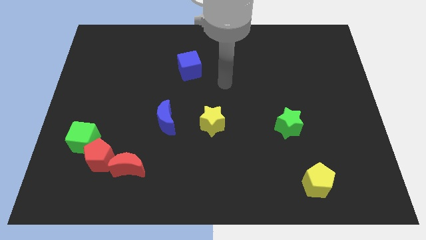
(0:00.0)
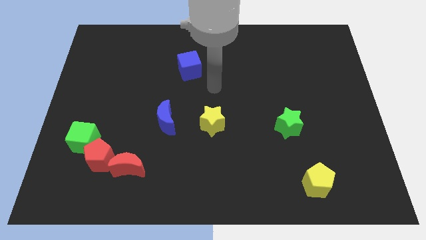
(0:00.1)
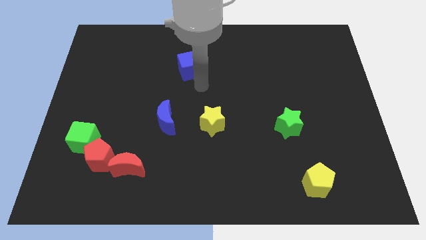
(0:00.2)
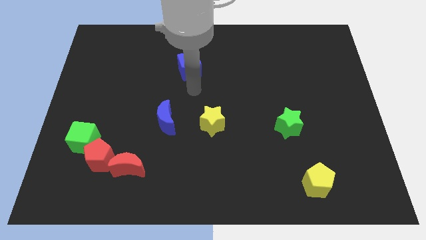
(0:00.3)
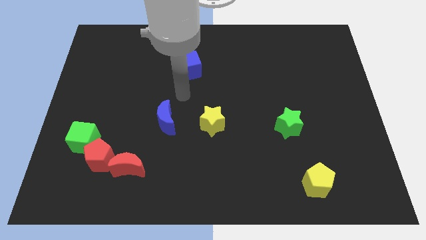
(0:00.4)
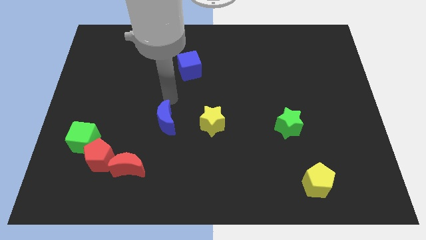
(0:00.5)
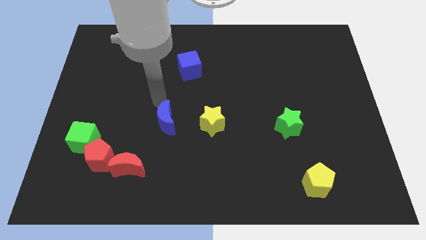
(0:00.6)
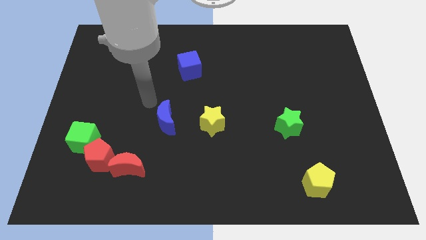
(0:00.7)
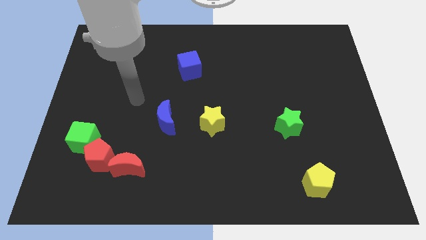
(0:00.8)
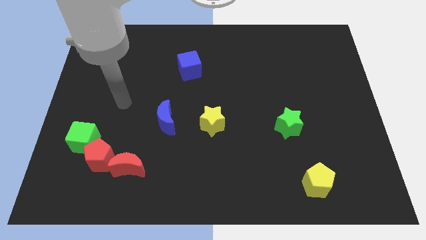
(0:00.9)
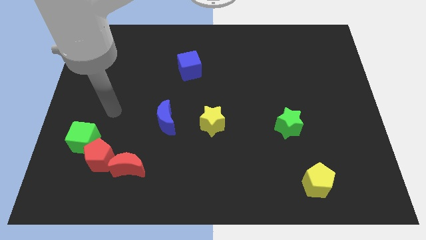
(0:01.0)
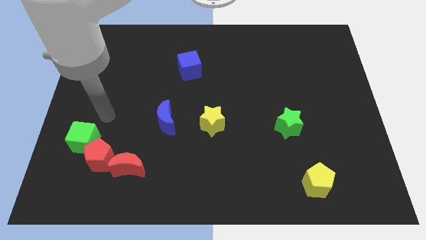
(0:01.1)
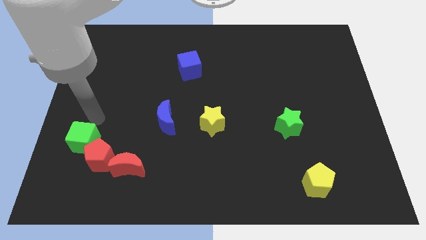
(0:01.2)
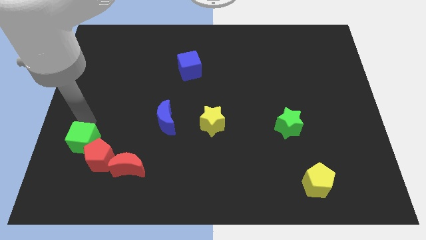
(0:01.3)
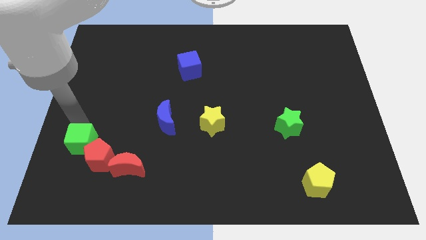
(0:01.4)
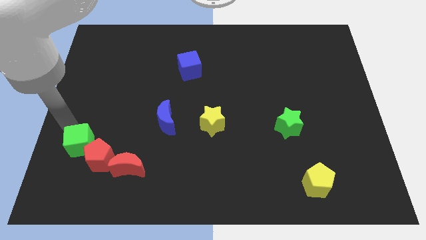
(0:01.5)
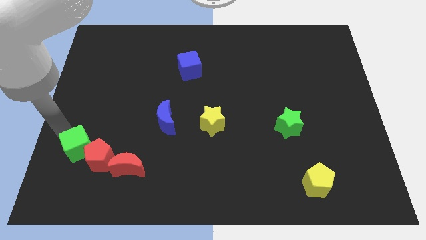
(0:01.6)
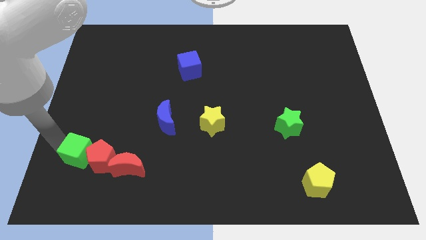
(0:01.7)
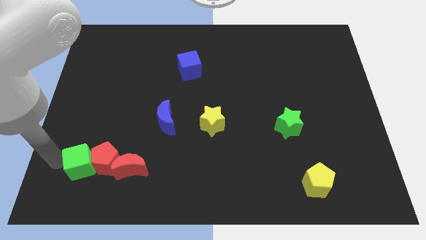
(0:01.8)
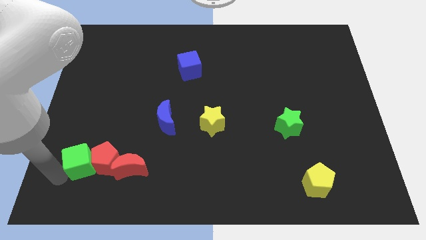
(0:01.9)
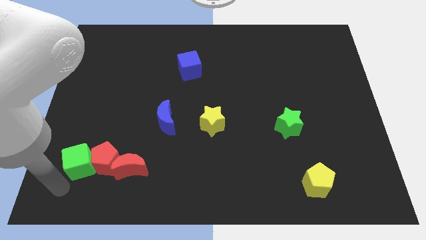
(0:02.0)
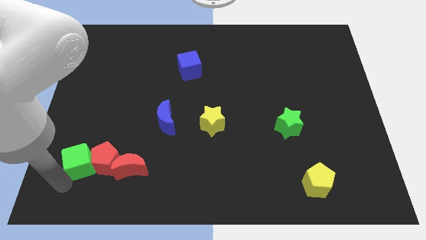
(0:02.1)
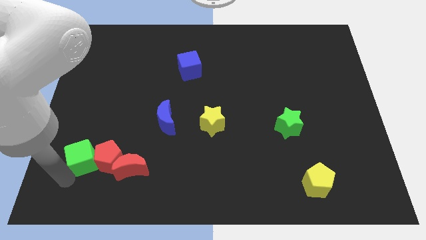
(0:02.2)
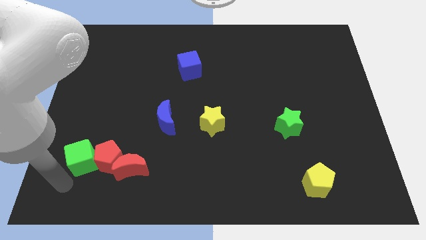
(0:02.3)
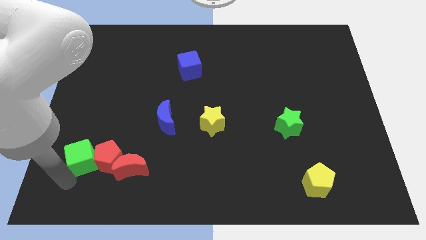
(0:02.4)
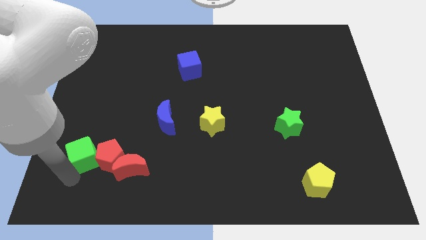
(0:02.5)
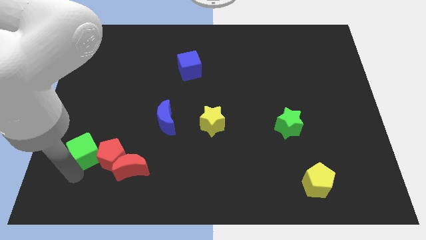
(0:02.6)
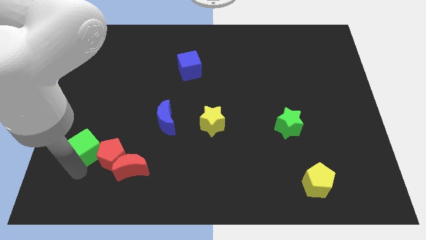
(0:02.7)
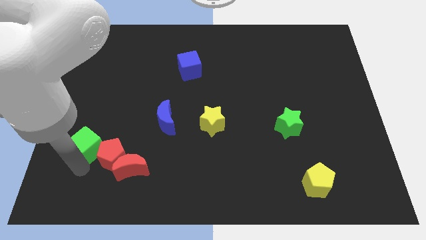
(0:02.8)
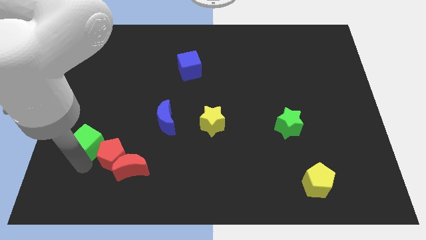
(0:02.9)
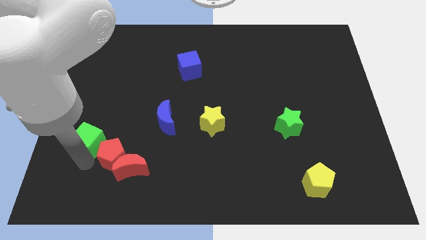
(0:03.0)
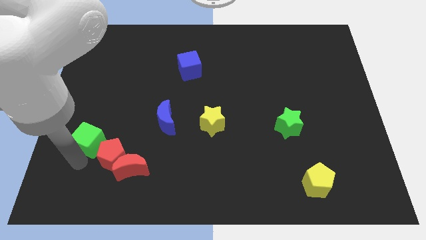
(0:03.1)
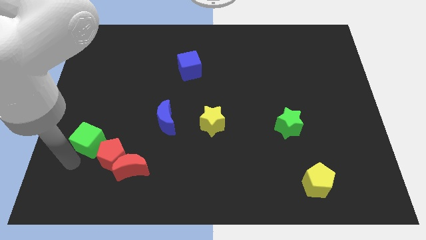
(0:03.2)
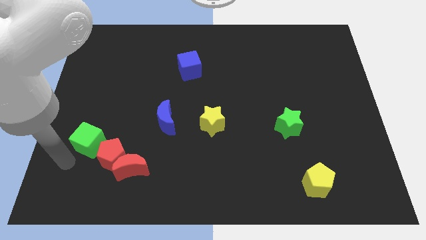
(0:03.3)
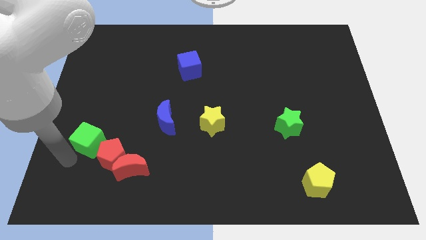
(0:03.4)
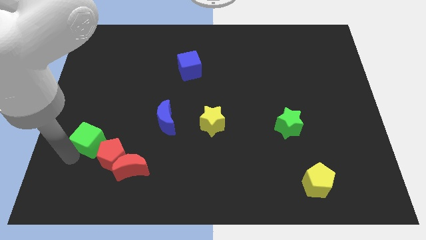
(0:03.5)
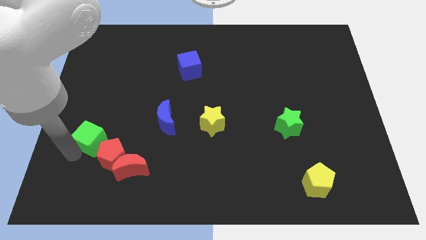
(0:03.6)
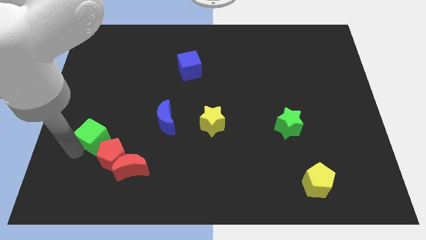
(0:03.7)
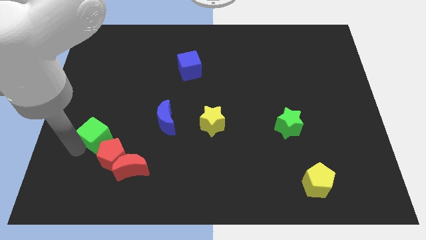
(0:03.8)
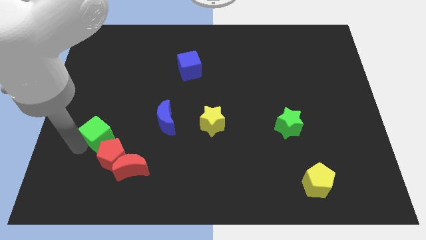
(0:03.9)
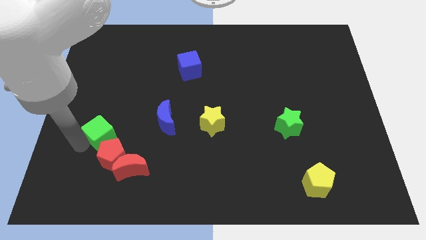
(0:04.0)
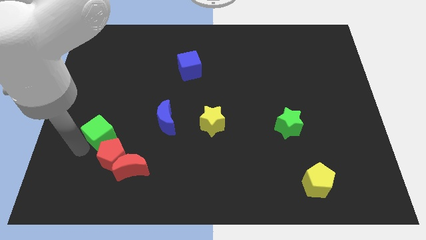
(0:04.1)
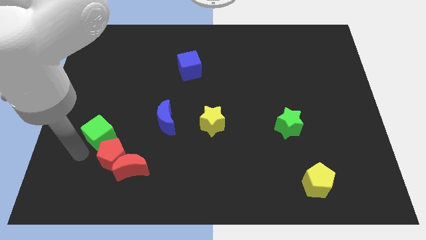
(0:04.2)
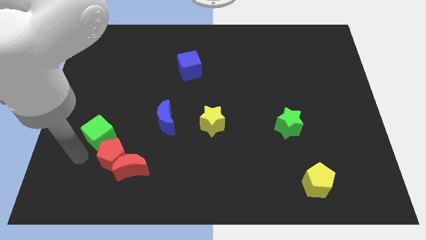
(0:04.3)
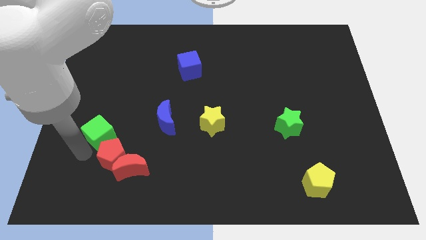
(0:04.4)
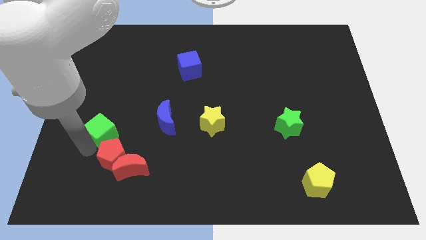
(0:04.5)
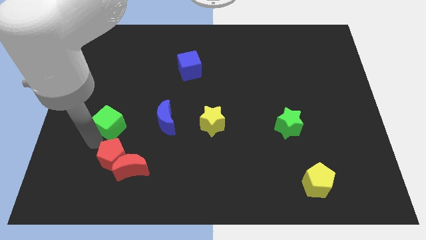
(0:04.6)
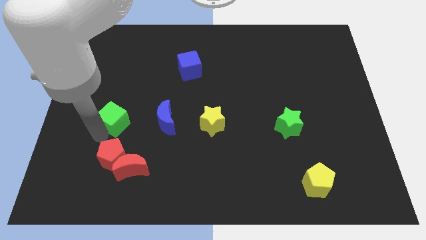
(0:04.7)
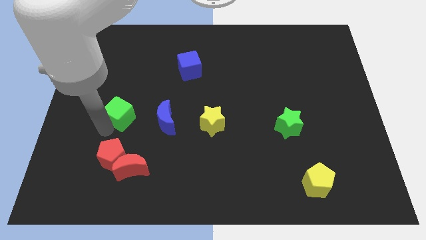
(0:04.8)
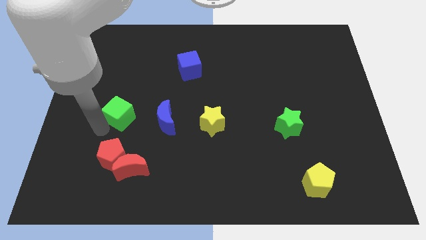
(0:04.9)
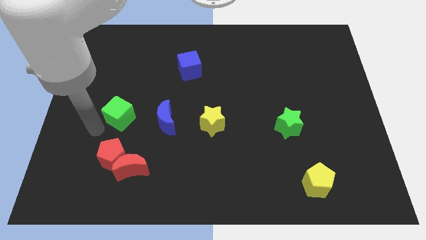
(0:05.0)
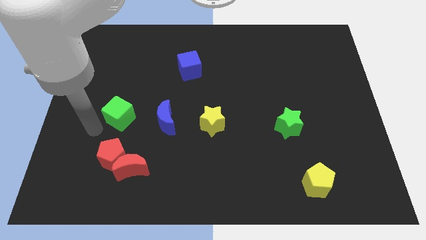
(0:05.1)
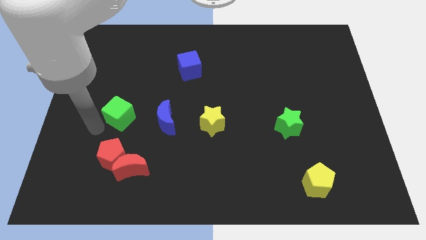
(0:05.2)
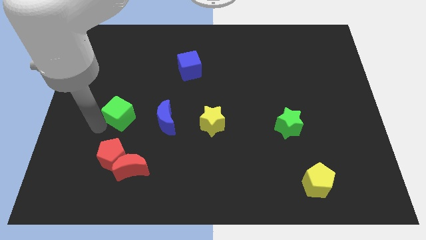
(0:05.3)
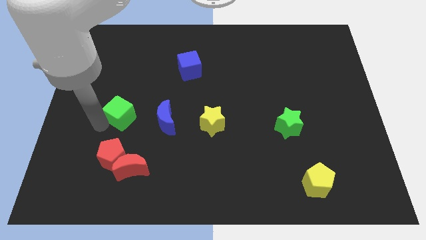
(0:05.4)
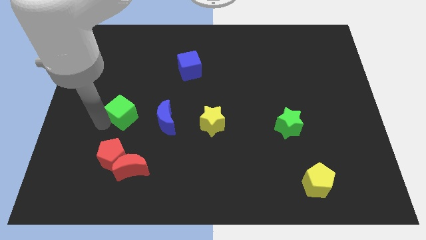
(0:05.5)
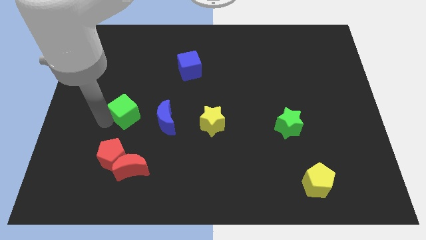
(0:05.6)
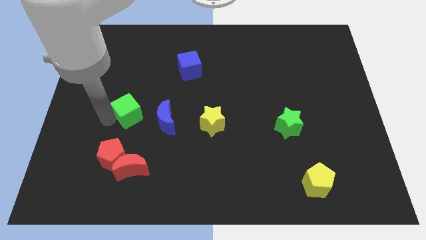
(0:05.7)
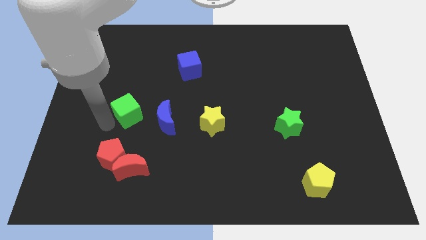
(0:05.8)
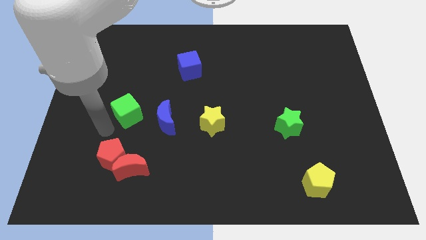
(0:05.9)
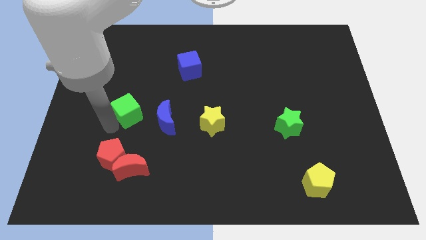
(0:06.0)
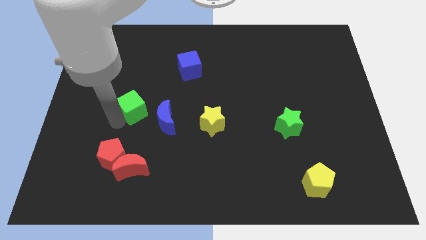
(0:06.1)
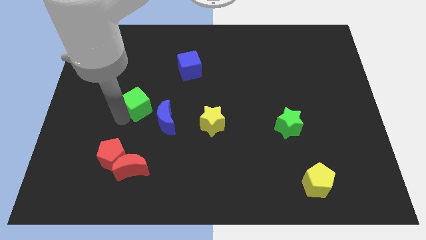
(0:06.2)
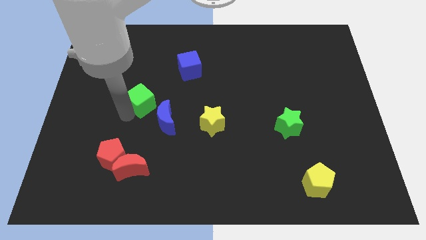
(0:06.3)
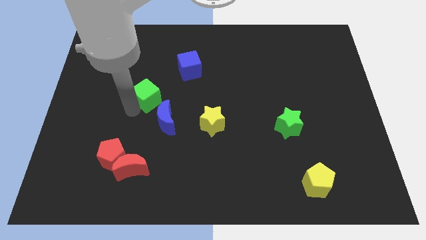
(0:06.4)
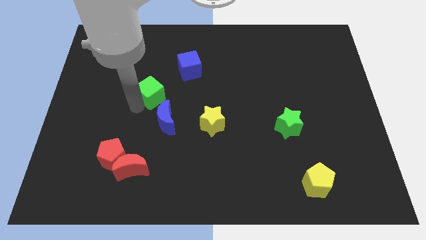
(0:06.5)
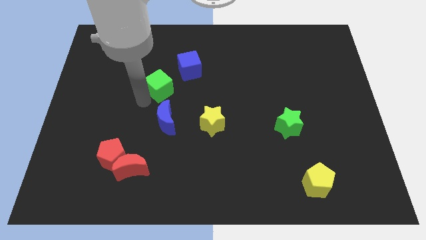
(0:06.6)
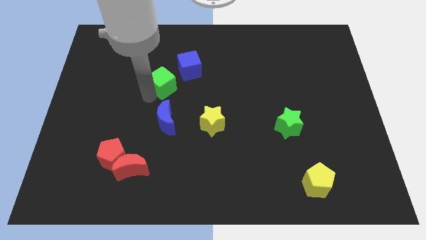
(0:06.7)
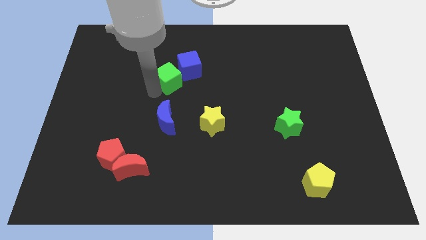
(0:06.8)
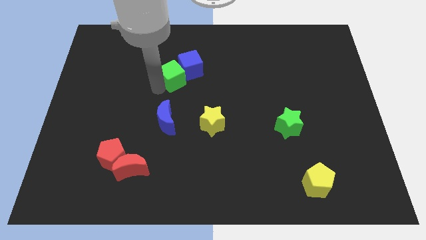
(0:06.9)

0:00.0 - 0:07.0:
move the green cube next to the blue cube
